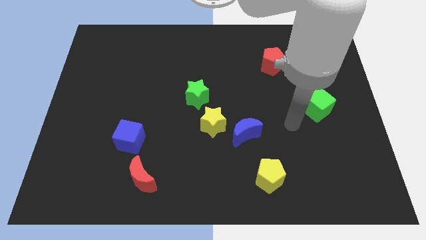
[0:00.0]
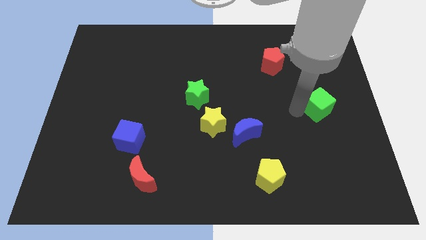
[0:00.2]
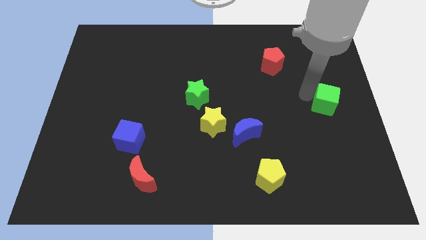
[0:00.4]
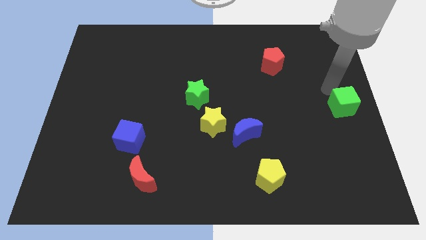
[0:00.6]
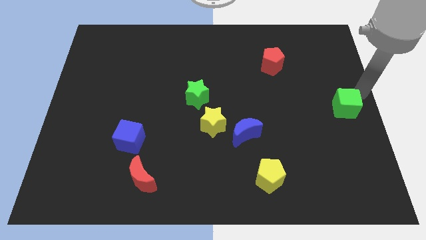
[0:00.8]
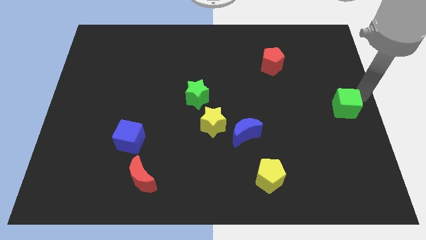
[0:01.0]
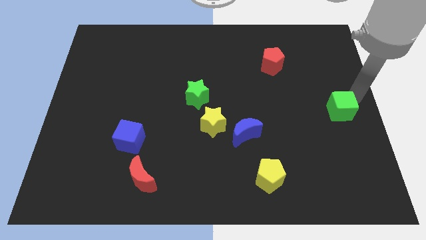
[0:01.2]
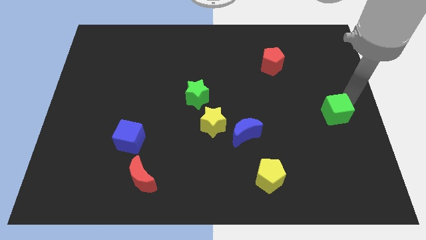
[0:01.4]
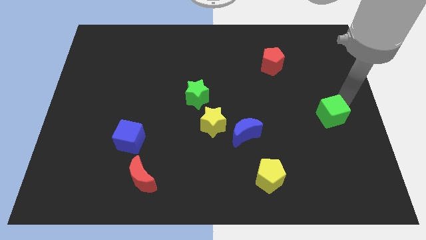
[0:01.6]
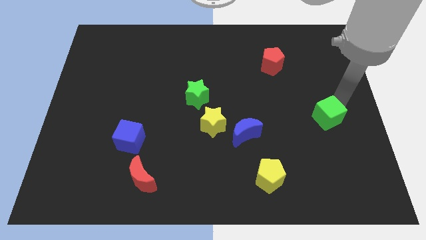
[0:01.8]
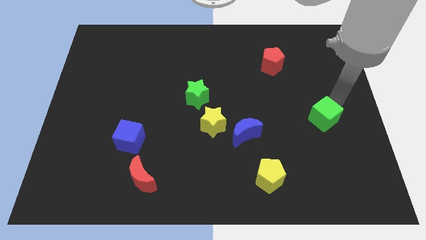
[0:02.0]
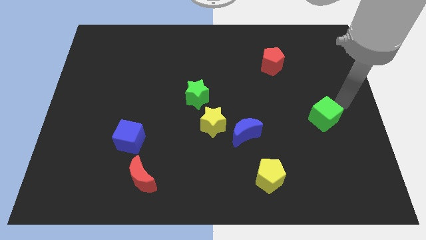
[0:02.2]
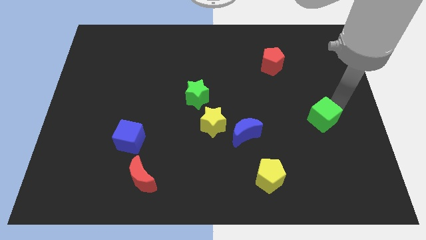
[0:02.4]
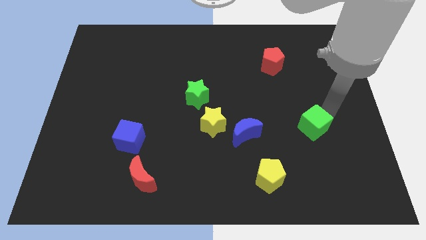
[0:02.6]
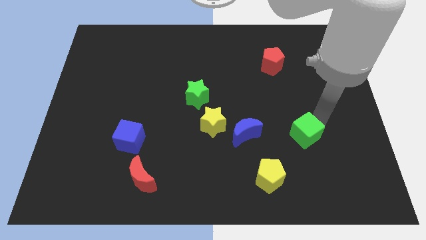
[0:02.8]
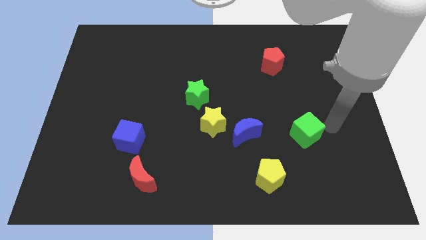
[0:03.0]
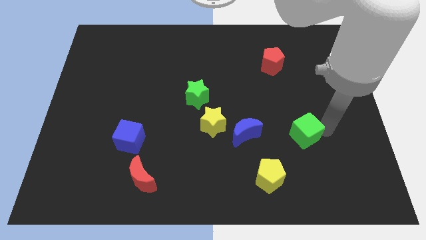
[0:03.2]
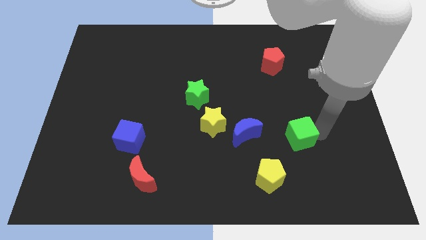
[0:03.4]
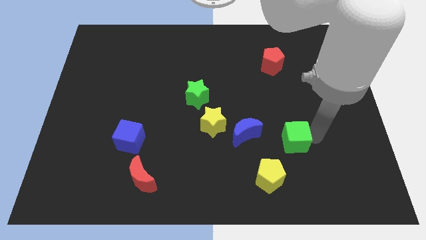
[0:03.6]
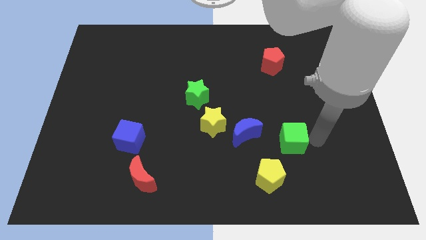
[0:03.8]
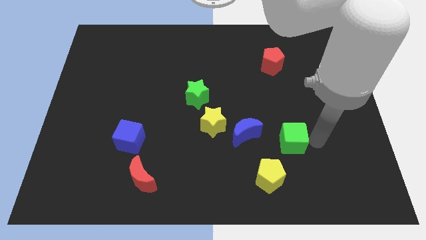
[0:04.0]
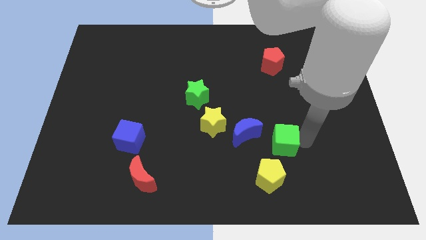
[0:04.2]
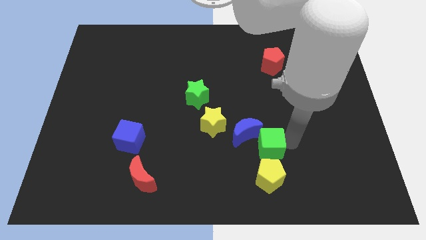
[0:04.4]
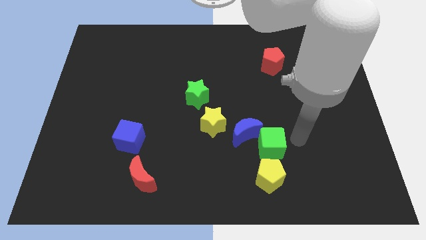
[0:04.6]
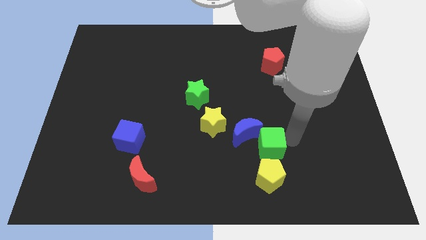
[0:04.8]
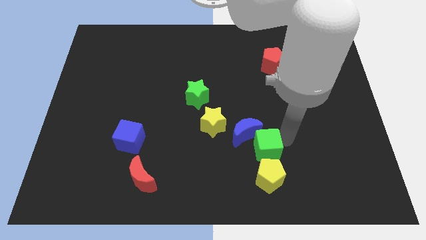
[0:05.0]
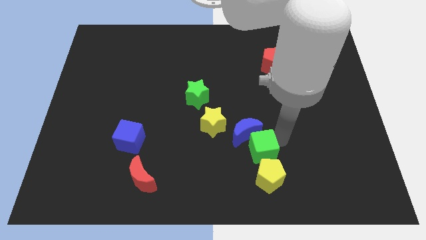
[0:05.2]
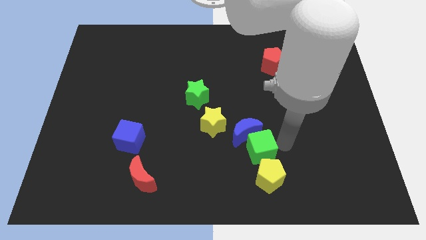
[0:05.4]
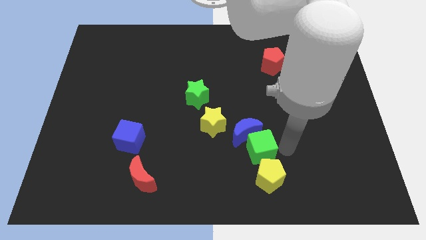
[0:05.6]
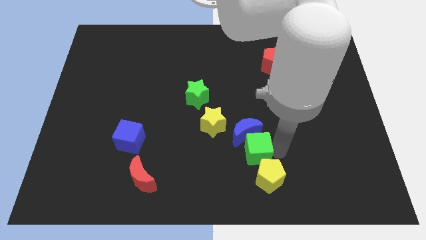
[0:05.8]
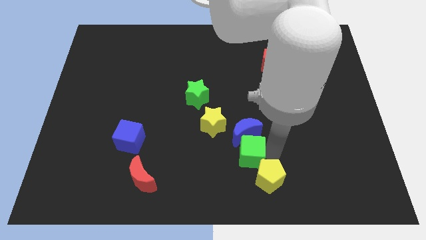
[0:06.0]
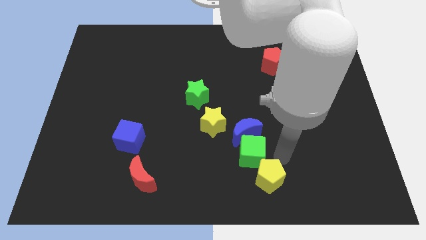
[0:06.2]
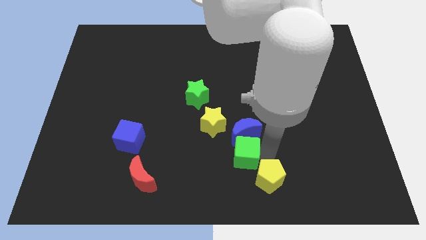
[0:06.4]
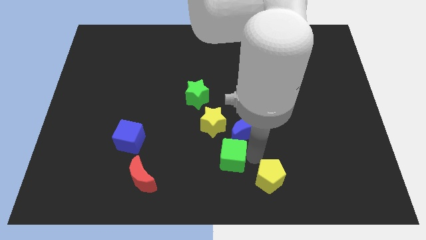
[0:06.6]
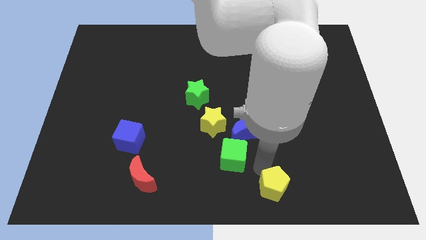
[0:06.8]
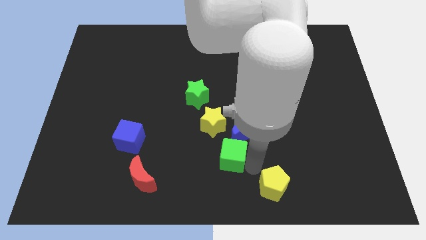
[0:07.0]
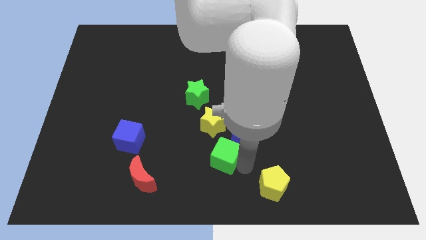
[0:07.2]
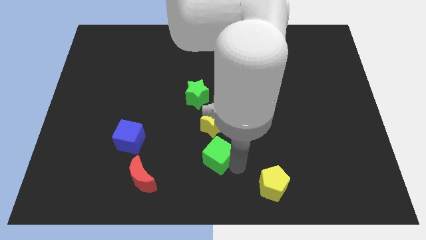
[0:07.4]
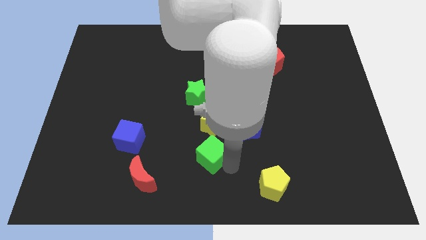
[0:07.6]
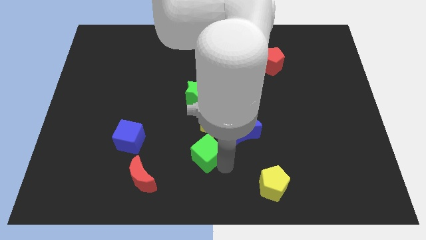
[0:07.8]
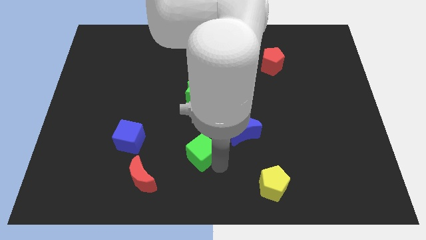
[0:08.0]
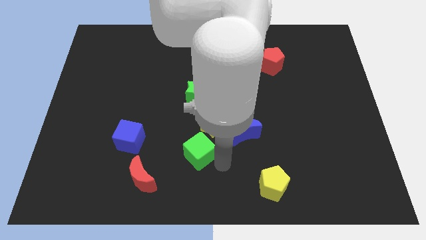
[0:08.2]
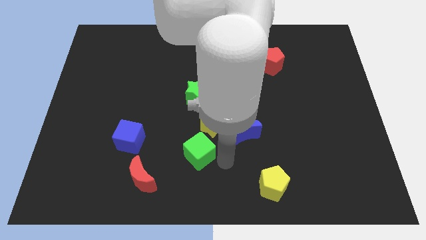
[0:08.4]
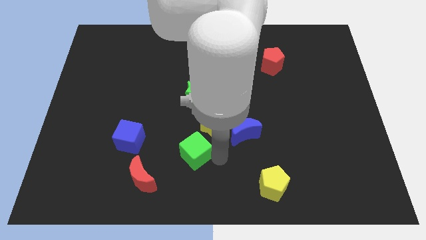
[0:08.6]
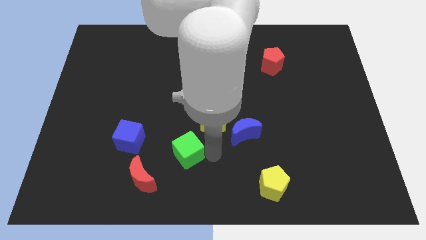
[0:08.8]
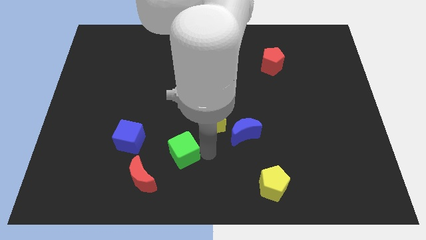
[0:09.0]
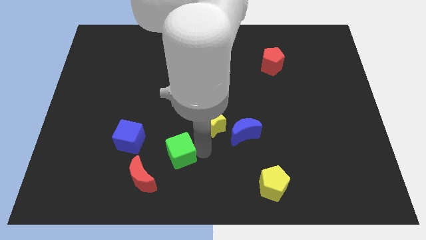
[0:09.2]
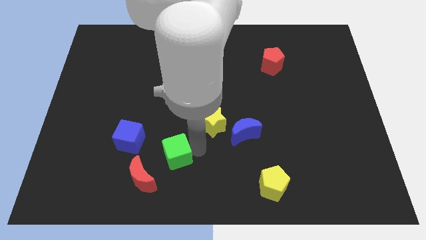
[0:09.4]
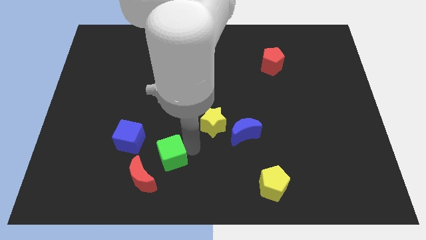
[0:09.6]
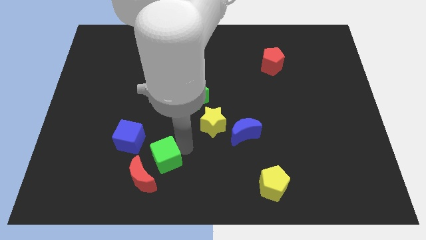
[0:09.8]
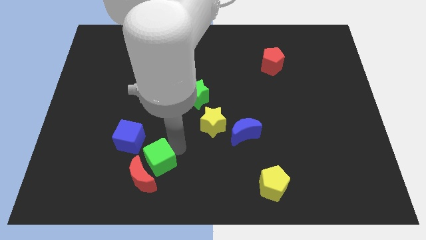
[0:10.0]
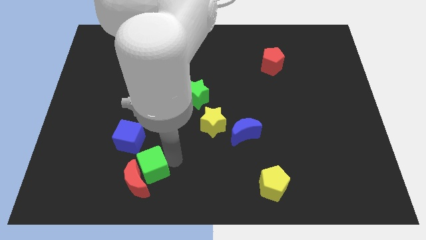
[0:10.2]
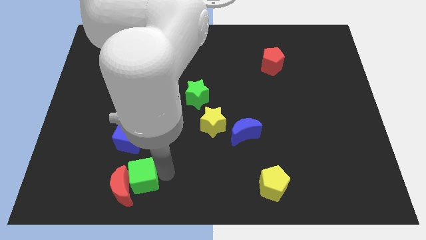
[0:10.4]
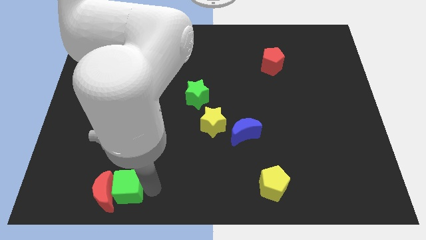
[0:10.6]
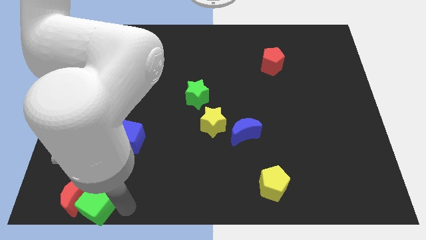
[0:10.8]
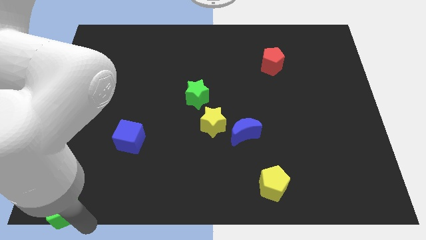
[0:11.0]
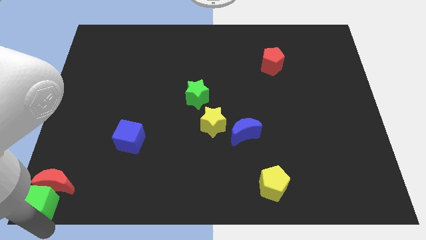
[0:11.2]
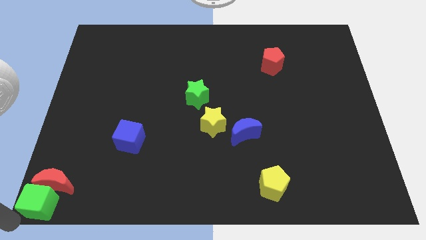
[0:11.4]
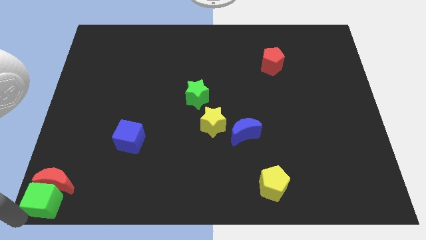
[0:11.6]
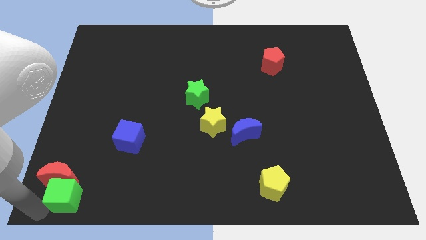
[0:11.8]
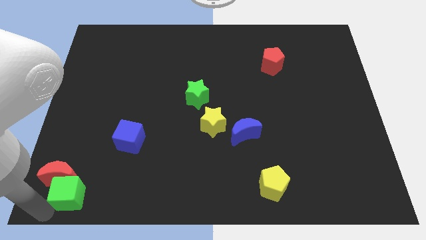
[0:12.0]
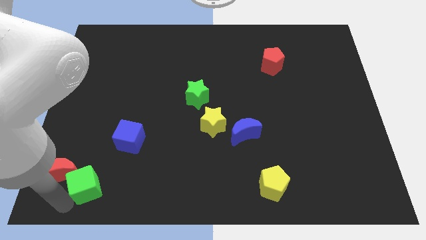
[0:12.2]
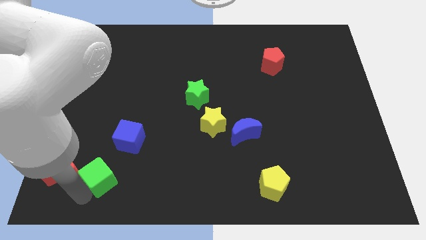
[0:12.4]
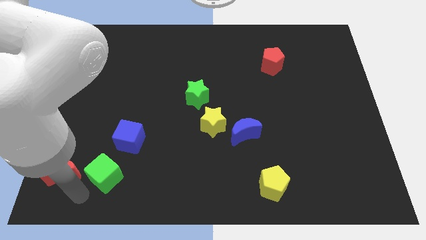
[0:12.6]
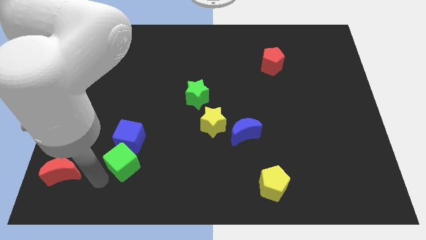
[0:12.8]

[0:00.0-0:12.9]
push the green cube close to the blue cube
